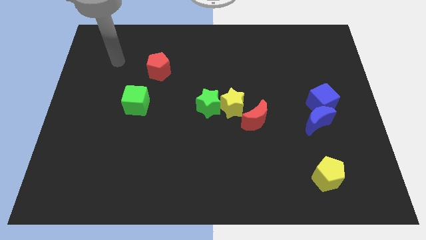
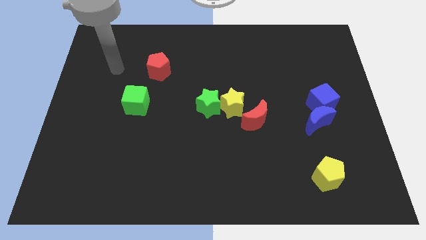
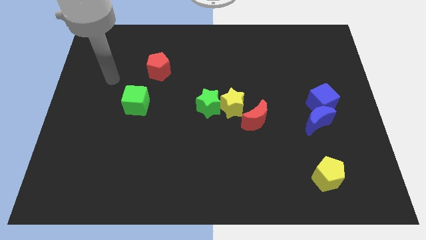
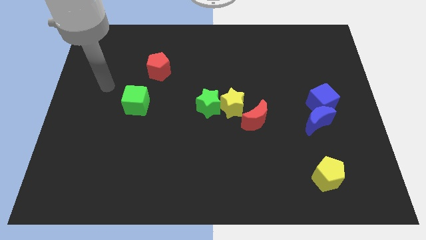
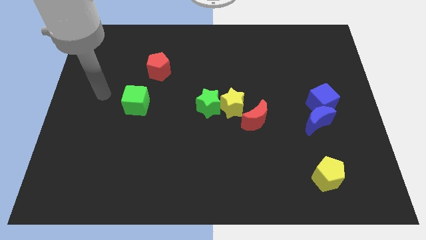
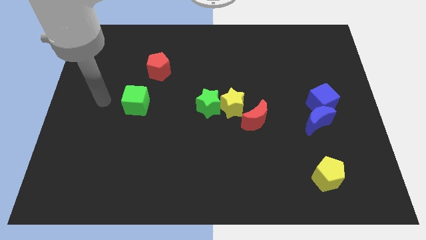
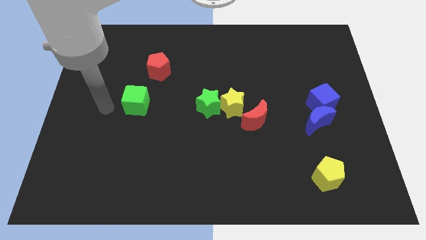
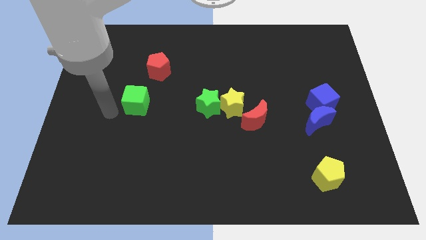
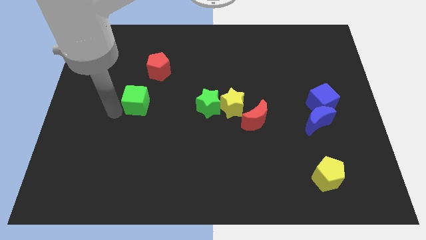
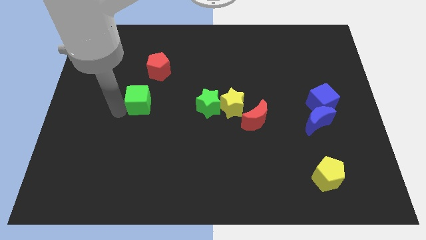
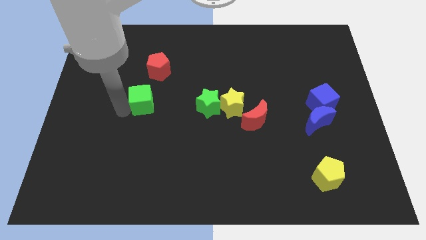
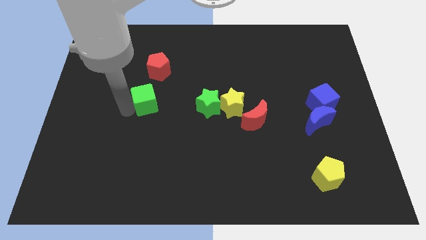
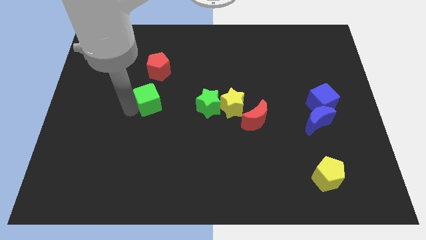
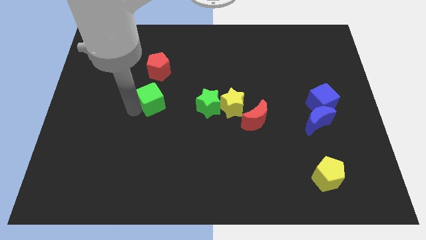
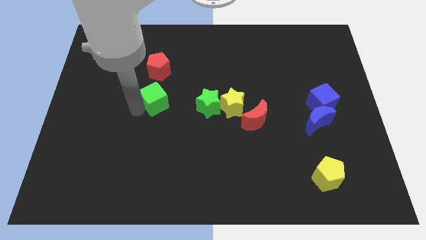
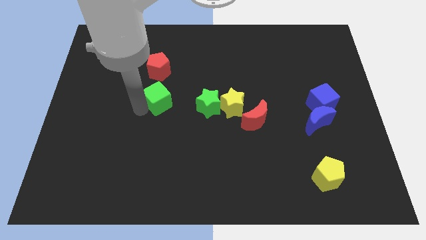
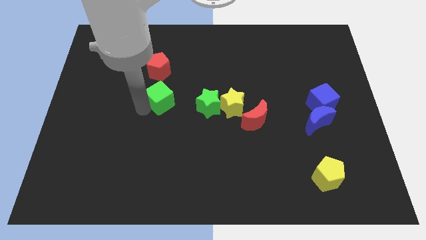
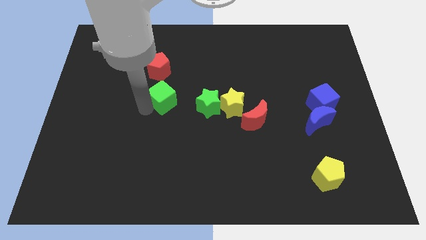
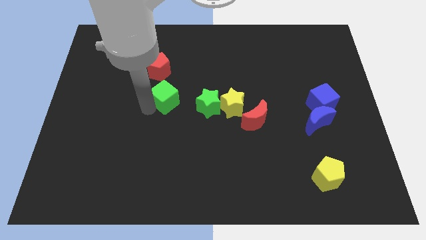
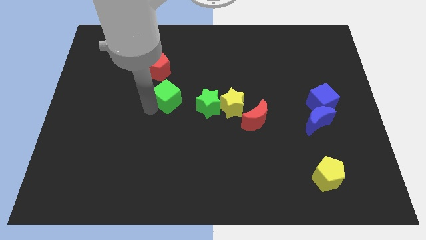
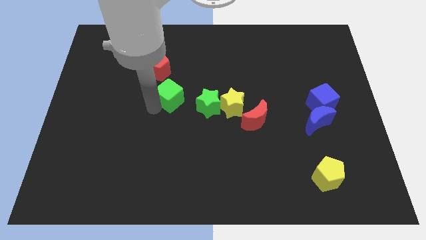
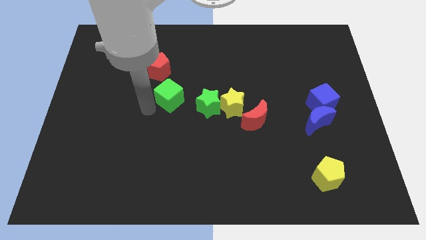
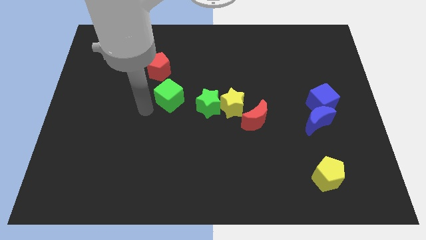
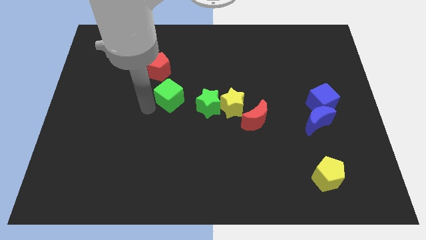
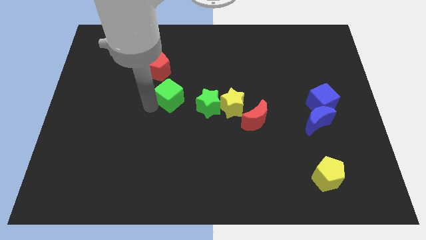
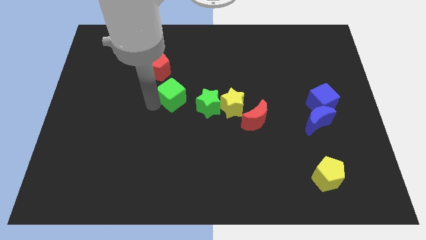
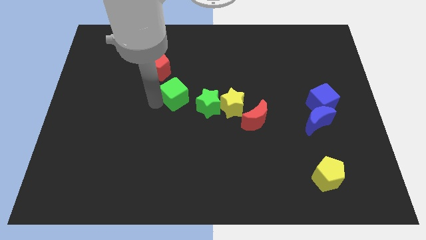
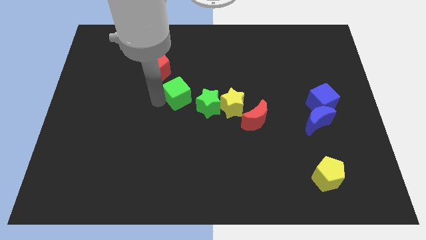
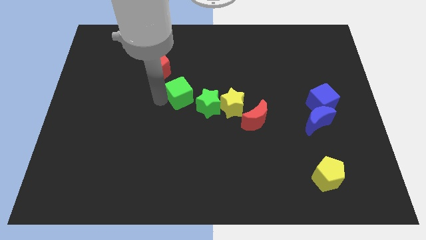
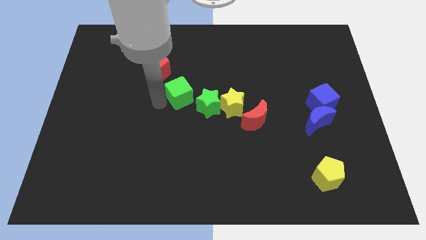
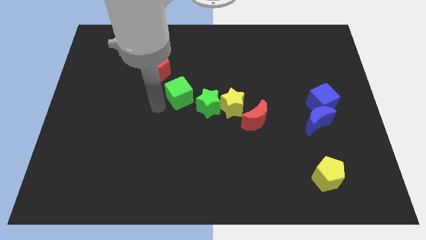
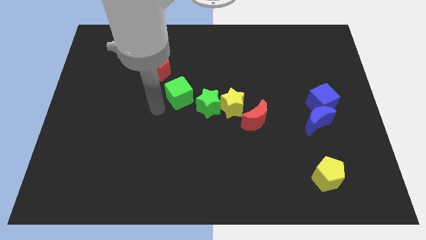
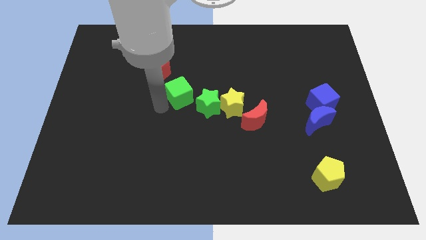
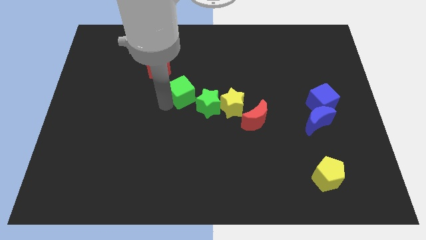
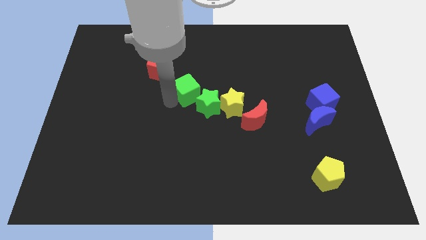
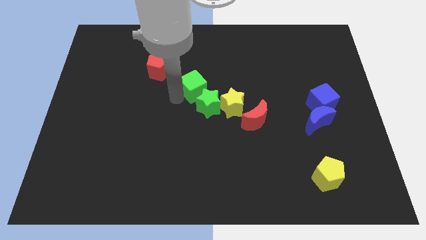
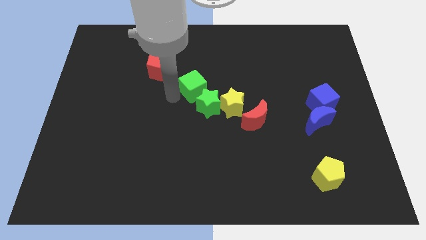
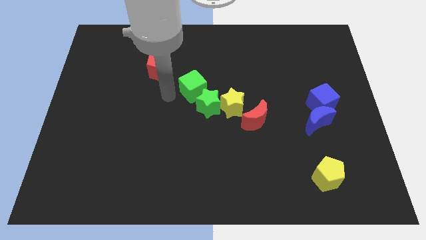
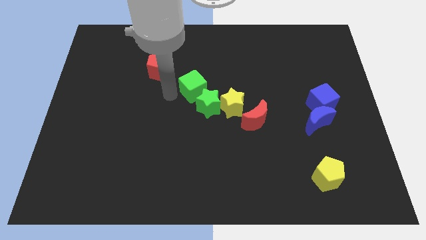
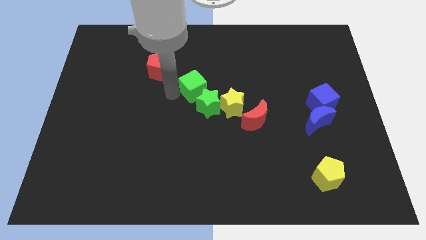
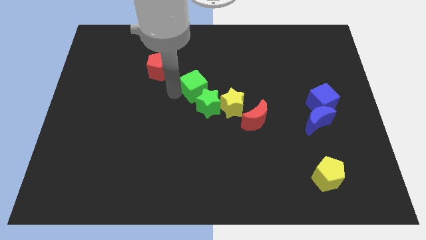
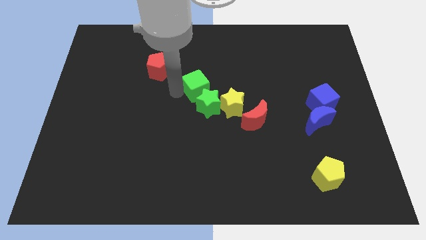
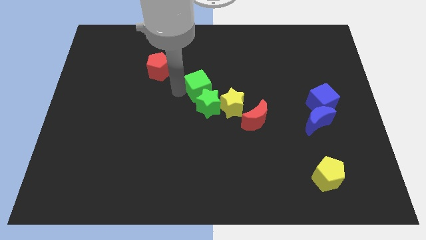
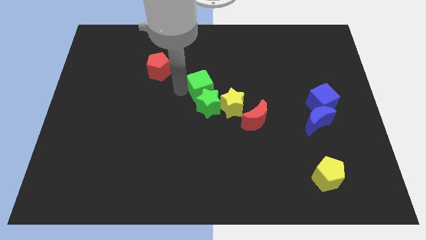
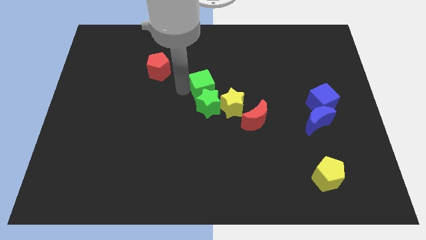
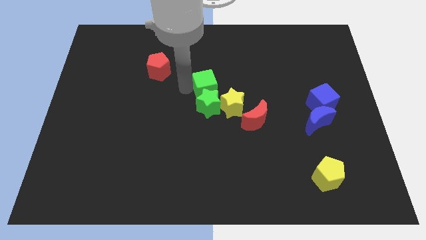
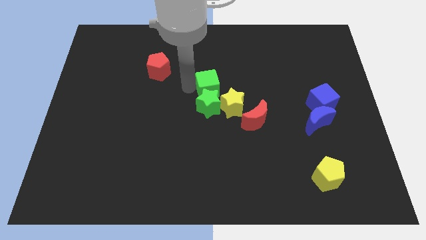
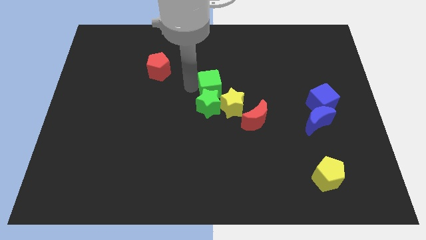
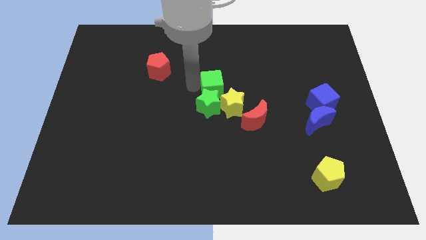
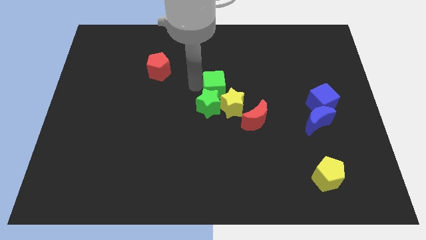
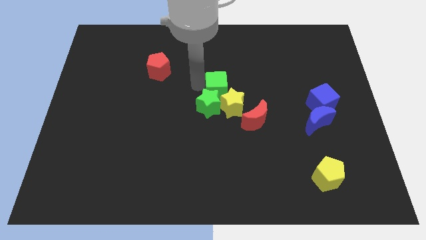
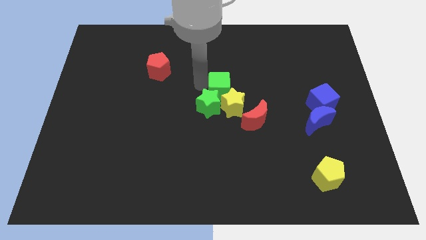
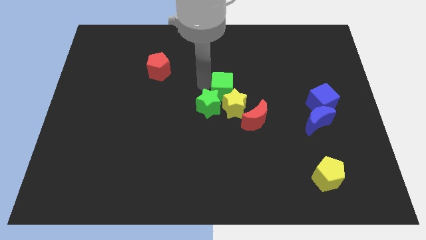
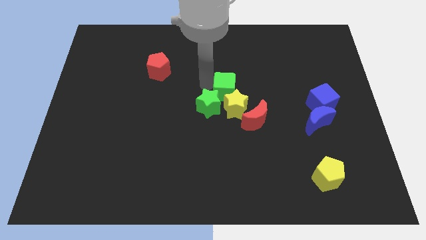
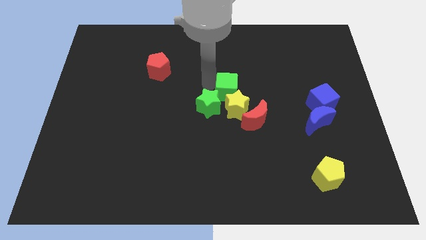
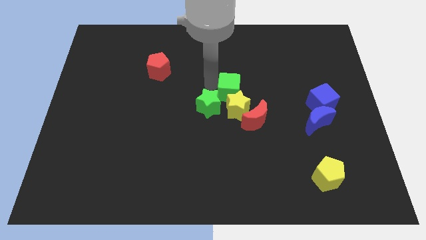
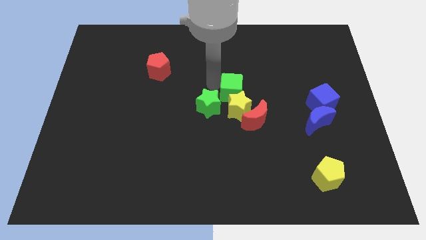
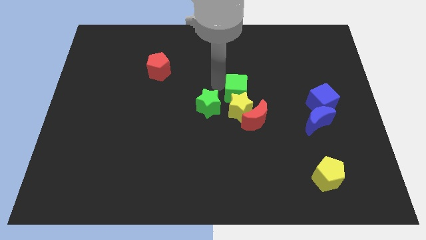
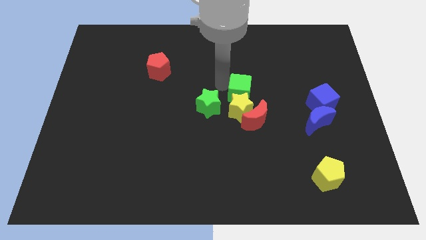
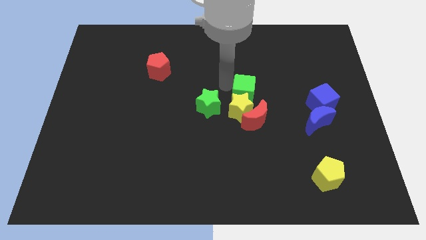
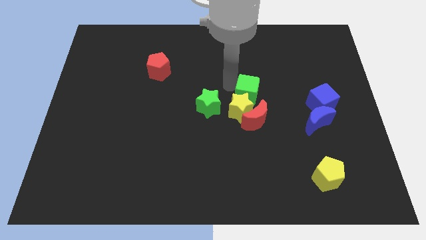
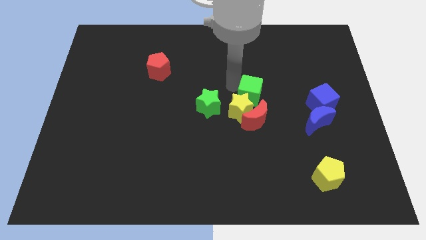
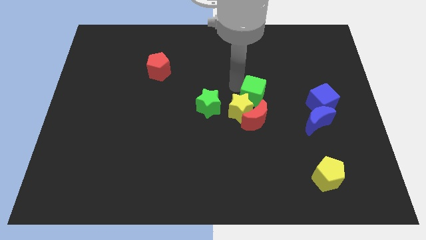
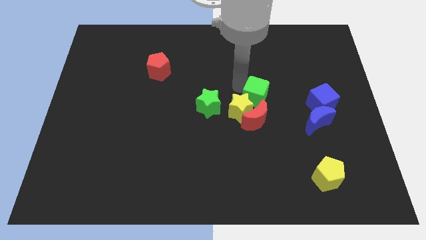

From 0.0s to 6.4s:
push the green cube diagonally up and to the right of the red moon

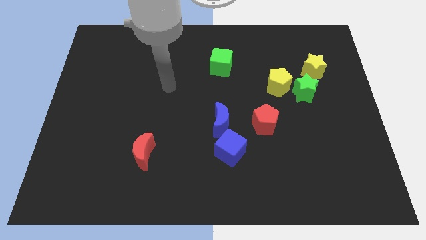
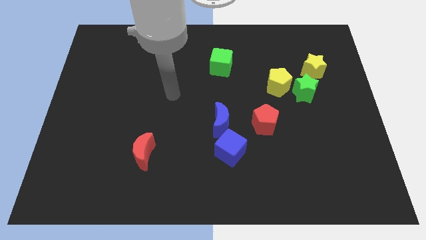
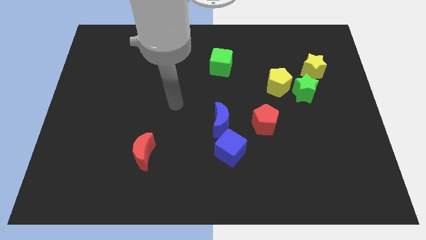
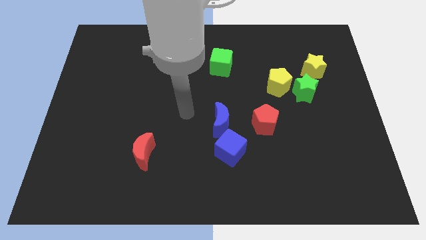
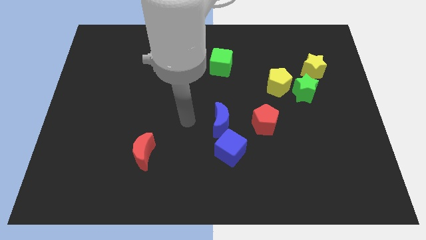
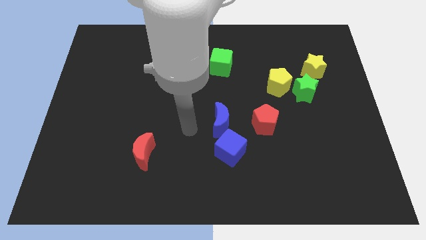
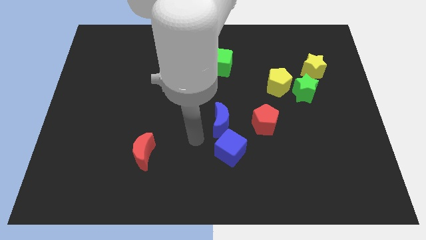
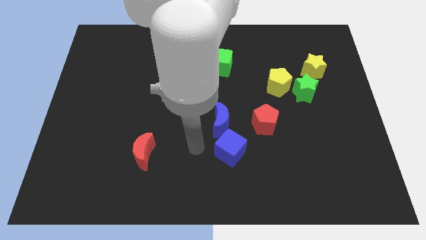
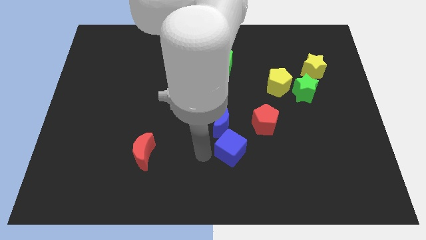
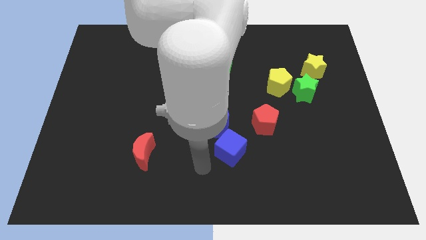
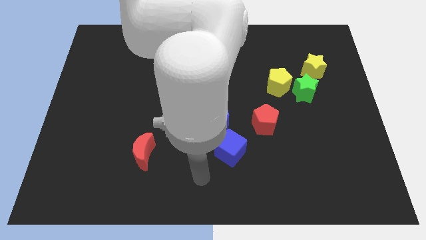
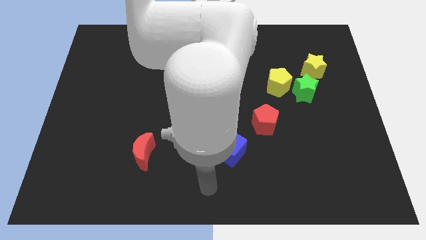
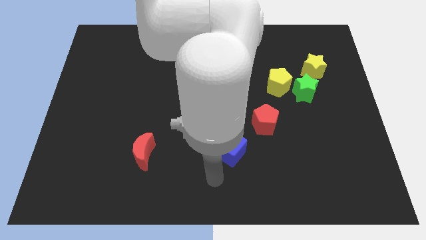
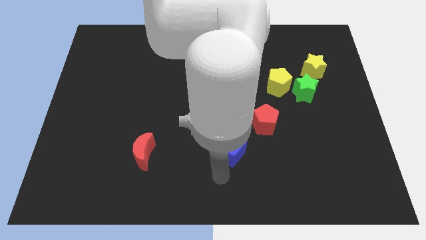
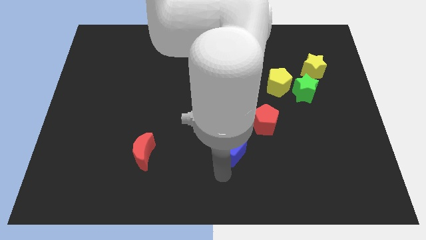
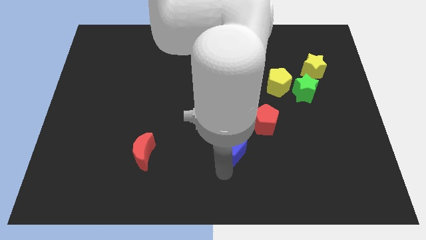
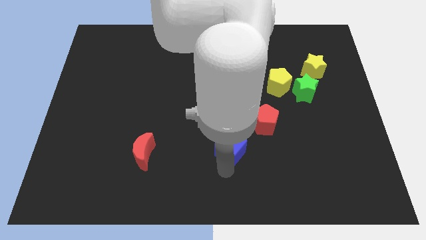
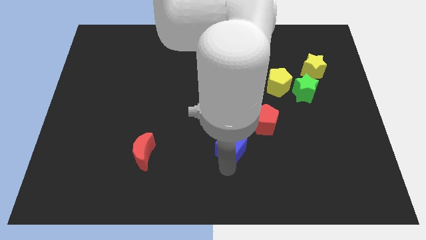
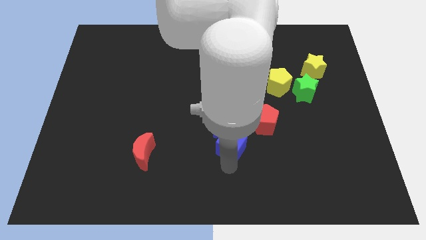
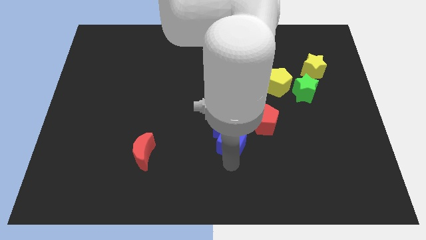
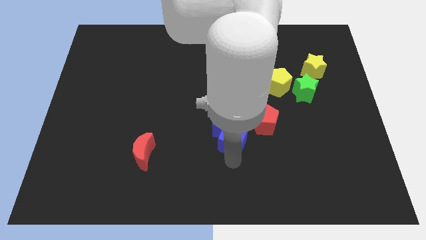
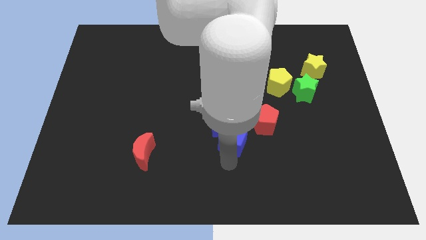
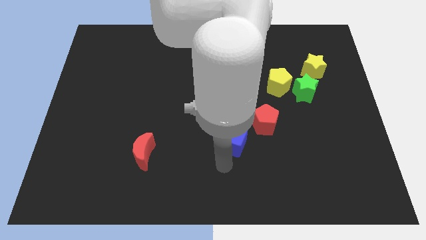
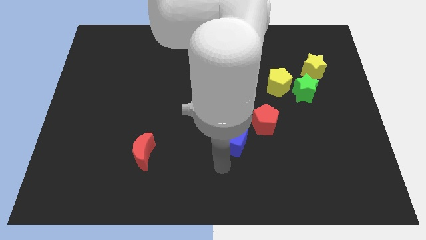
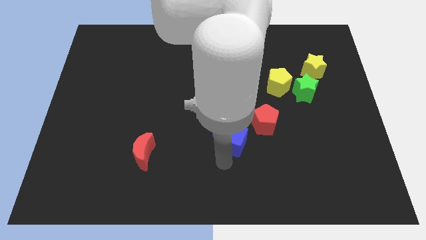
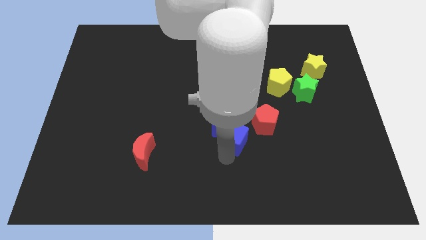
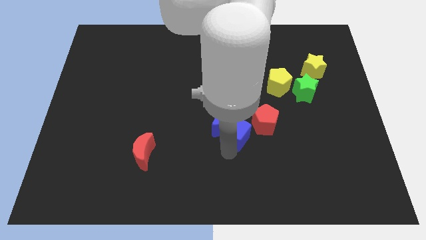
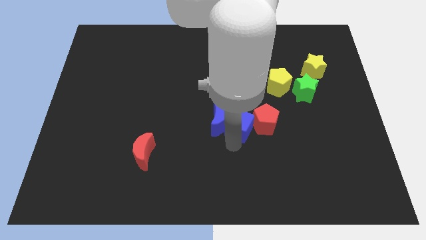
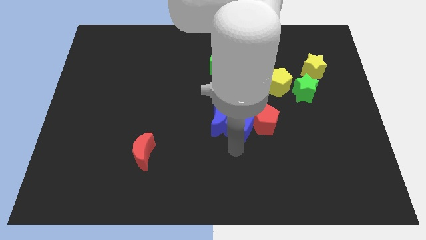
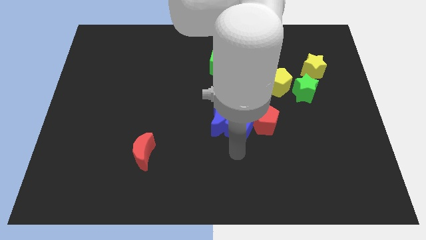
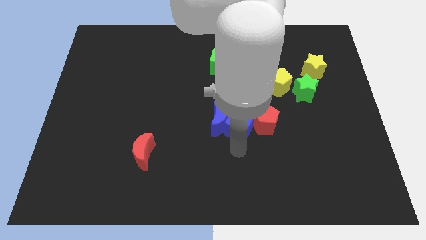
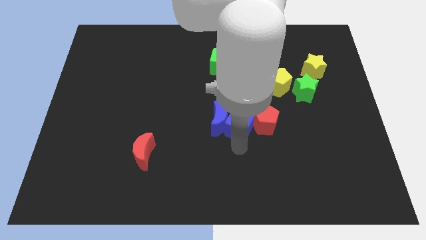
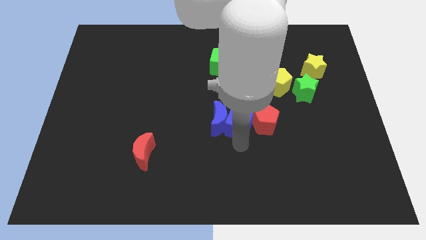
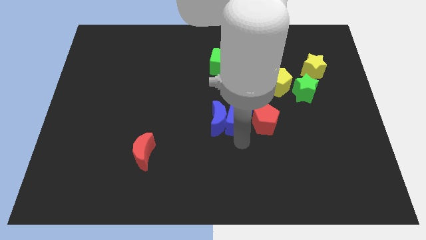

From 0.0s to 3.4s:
push the blue cube diagonally up and to the left of the red pentagon
